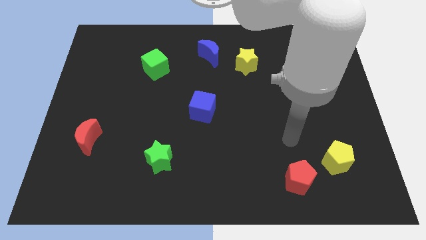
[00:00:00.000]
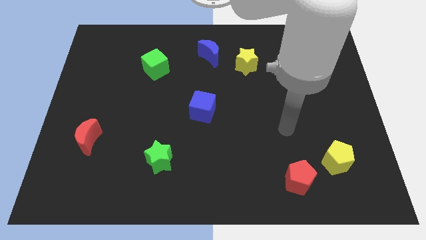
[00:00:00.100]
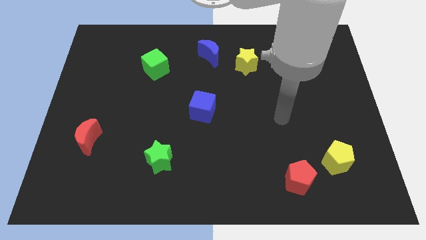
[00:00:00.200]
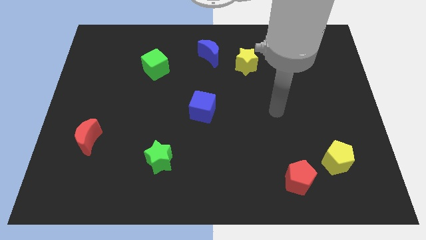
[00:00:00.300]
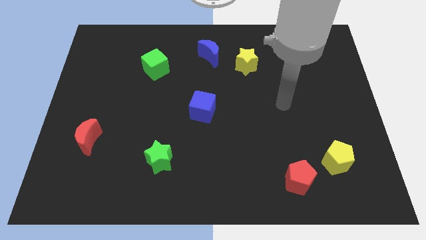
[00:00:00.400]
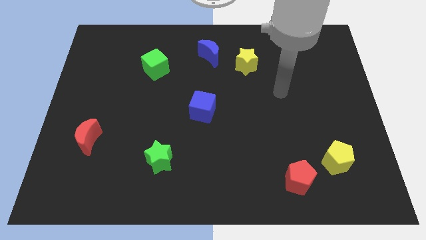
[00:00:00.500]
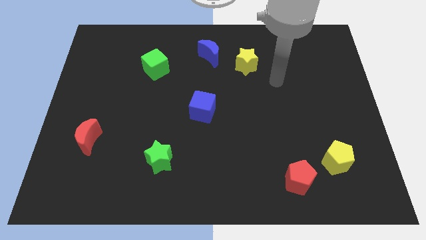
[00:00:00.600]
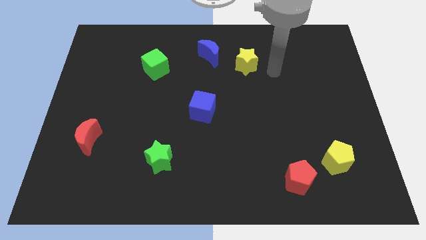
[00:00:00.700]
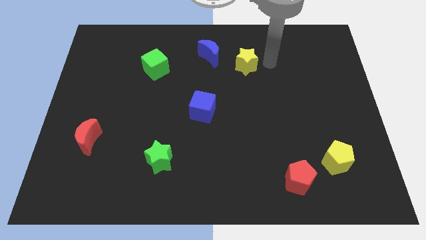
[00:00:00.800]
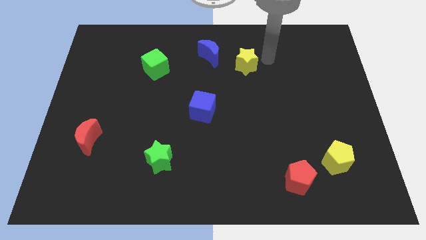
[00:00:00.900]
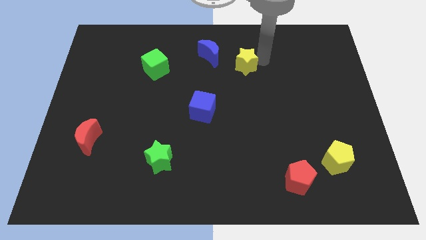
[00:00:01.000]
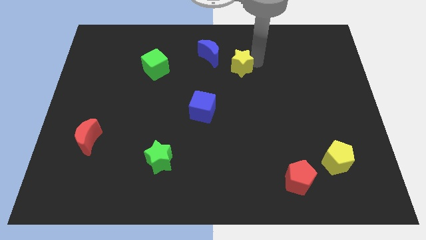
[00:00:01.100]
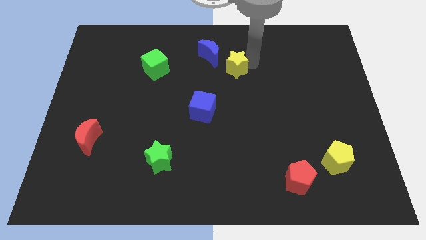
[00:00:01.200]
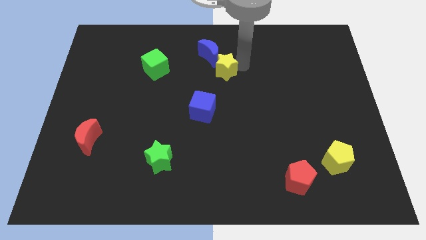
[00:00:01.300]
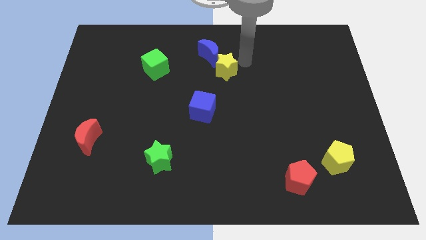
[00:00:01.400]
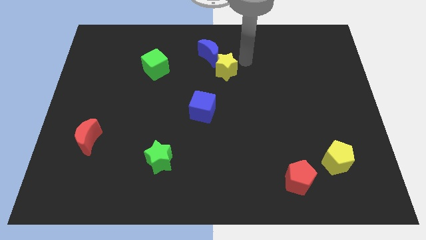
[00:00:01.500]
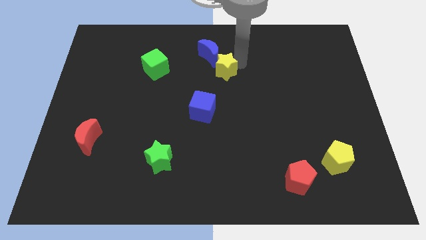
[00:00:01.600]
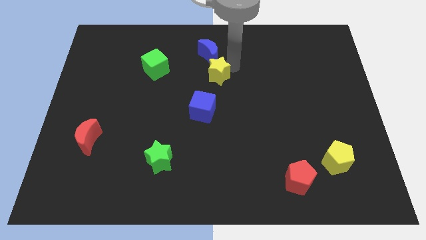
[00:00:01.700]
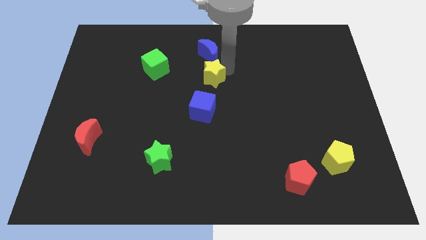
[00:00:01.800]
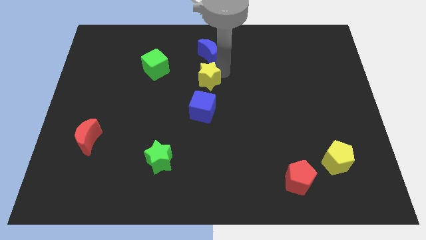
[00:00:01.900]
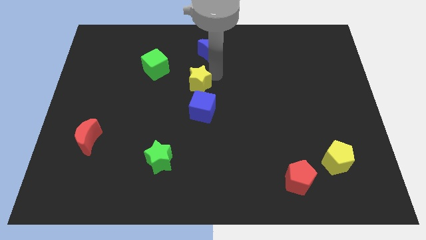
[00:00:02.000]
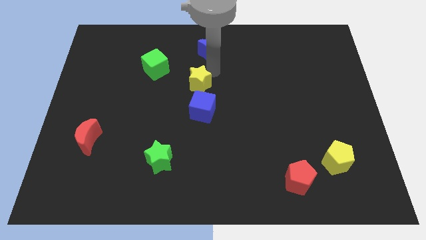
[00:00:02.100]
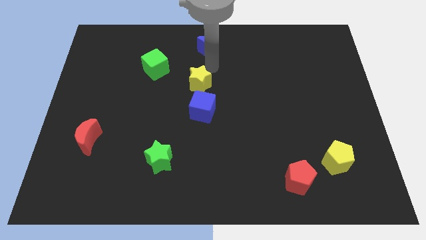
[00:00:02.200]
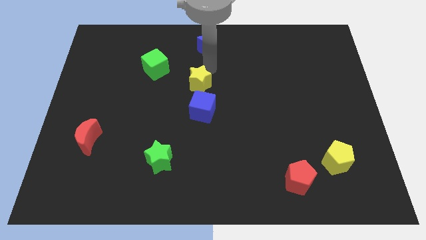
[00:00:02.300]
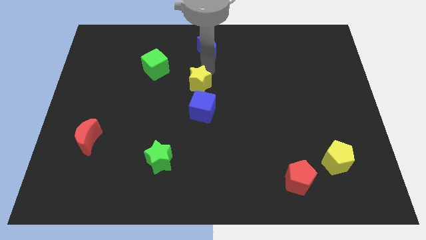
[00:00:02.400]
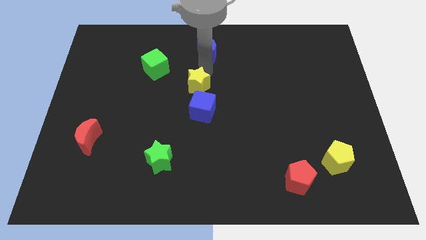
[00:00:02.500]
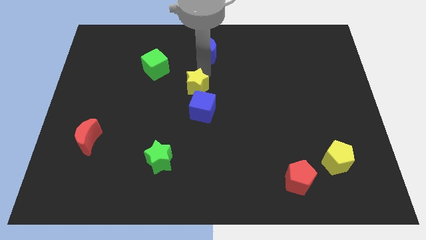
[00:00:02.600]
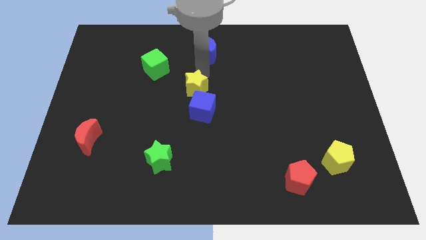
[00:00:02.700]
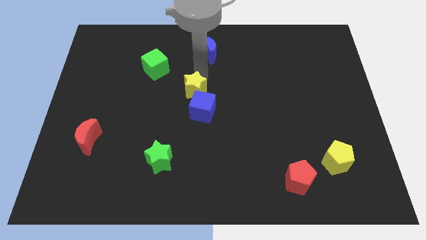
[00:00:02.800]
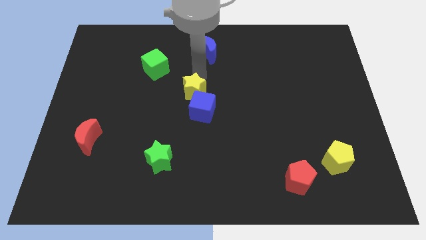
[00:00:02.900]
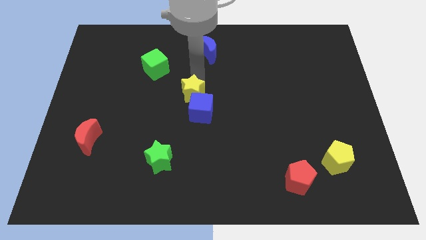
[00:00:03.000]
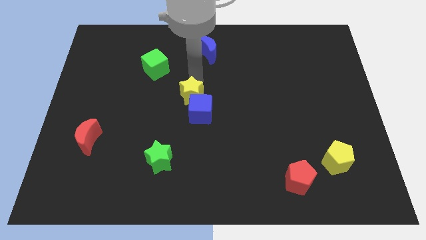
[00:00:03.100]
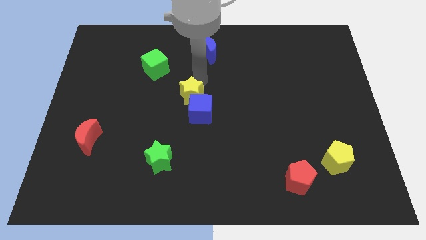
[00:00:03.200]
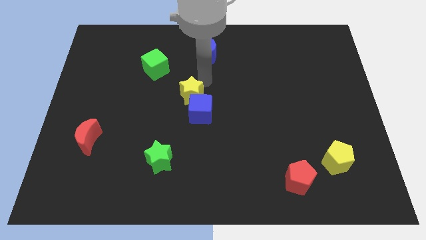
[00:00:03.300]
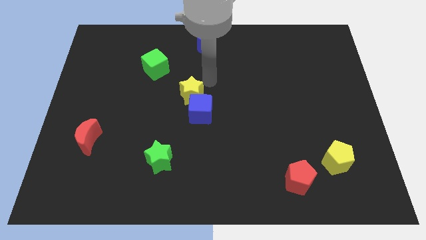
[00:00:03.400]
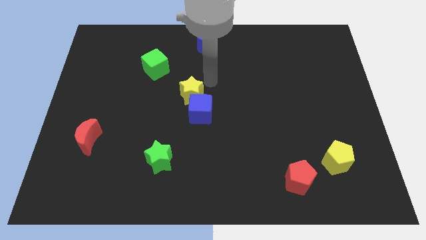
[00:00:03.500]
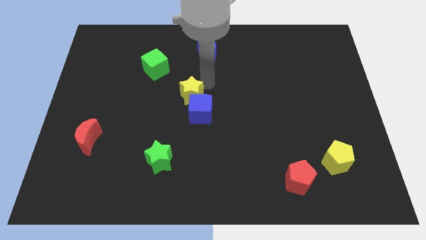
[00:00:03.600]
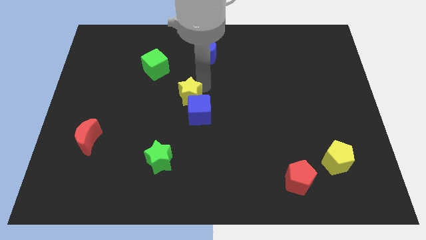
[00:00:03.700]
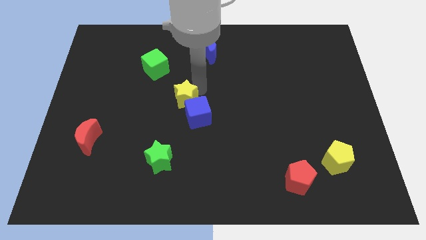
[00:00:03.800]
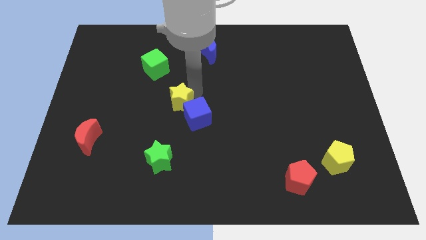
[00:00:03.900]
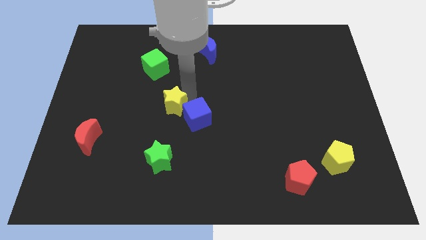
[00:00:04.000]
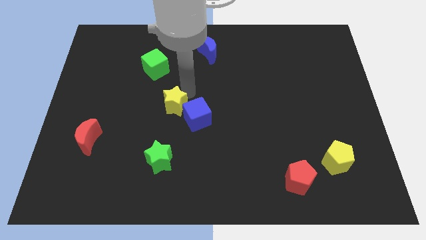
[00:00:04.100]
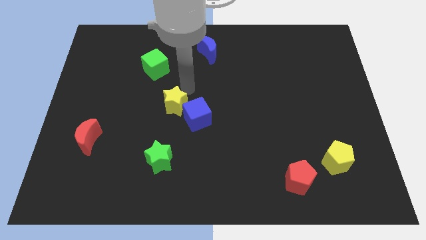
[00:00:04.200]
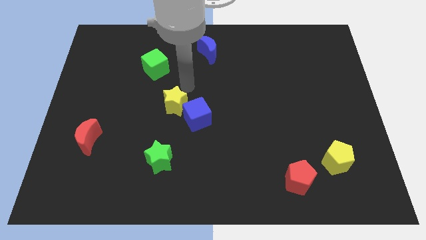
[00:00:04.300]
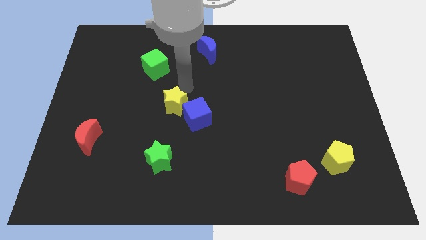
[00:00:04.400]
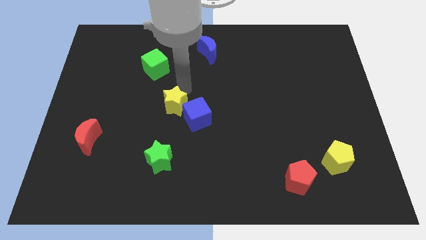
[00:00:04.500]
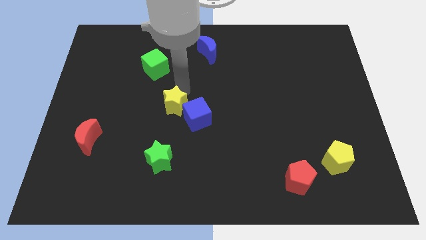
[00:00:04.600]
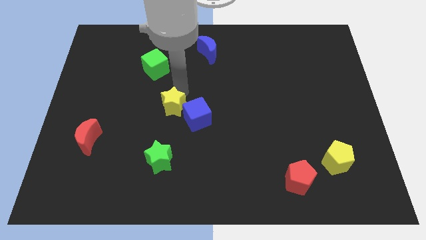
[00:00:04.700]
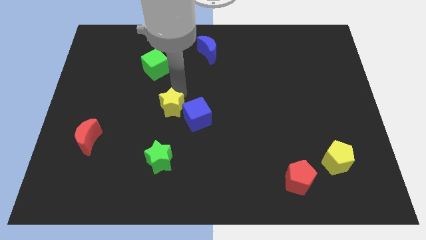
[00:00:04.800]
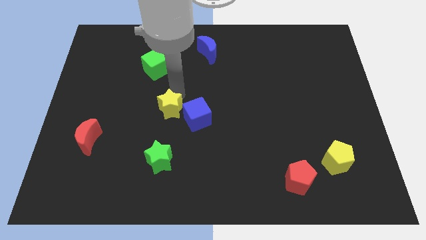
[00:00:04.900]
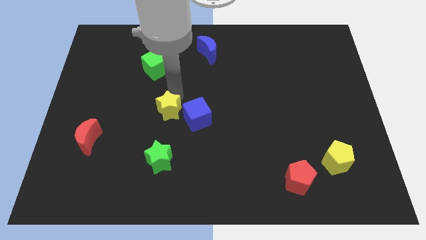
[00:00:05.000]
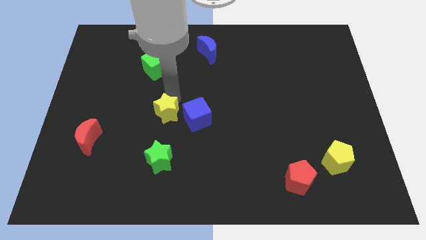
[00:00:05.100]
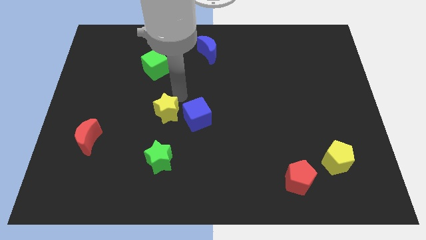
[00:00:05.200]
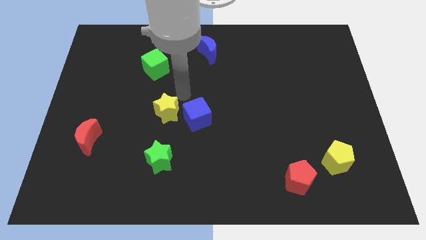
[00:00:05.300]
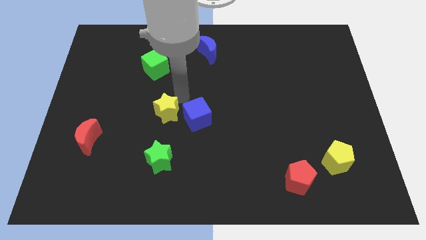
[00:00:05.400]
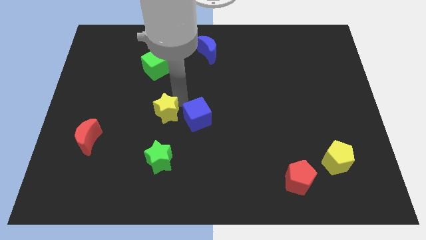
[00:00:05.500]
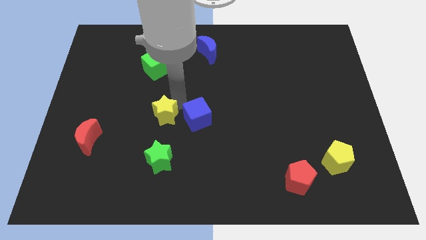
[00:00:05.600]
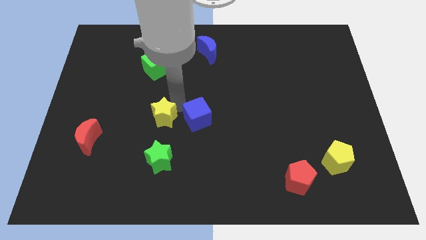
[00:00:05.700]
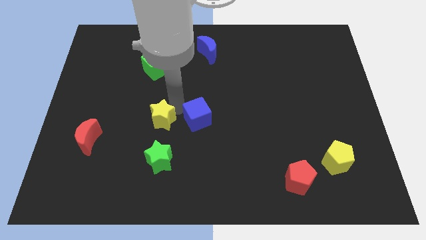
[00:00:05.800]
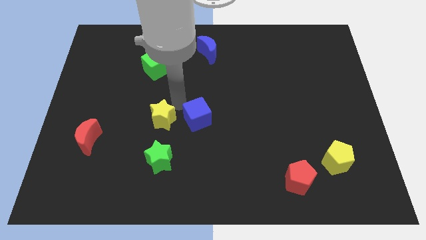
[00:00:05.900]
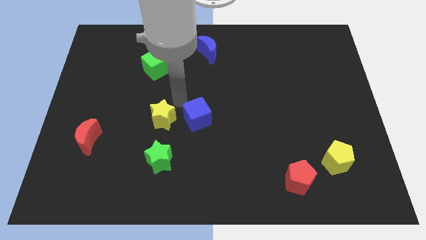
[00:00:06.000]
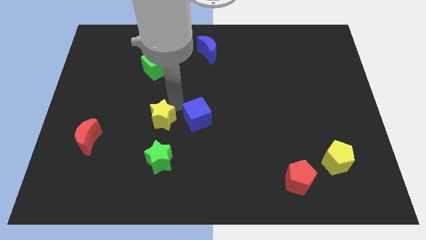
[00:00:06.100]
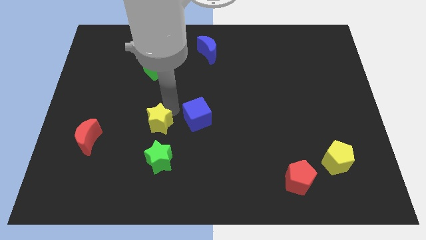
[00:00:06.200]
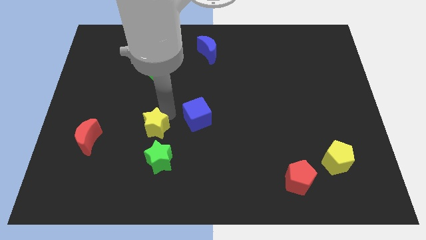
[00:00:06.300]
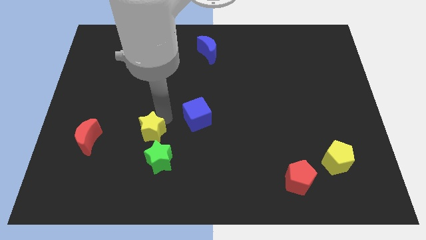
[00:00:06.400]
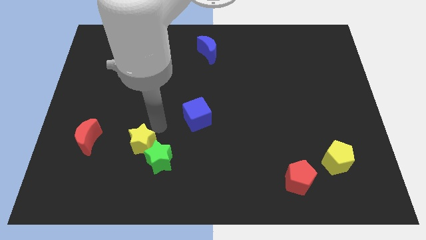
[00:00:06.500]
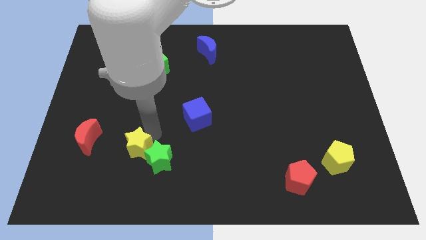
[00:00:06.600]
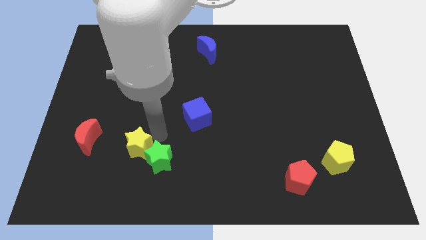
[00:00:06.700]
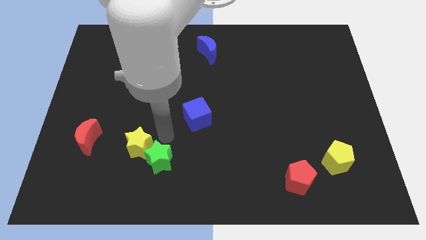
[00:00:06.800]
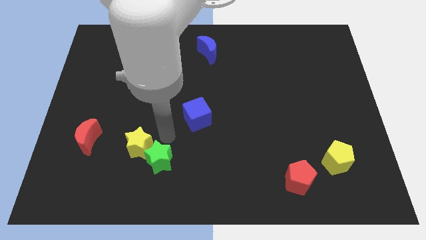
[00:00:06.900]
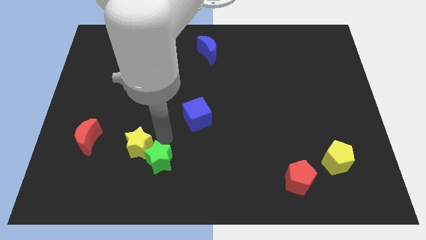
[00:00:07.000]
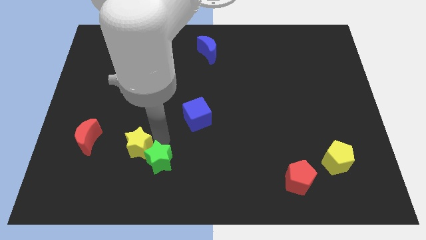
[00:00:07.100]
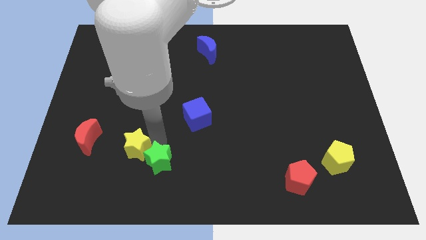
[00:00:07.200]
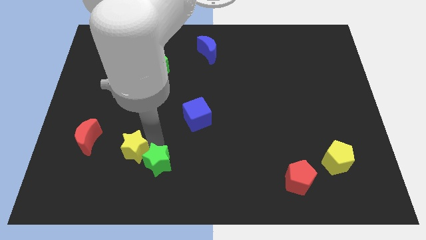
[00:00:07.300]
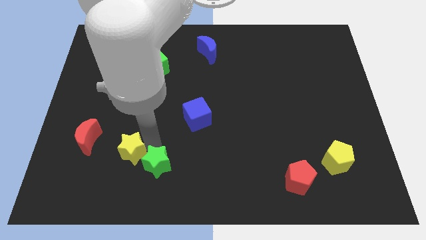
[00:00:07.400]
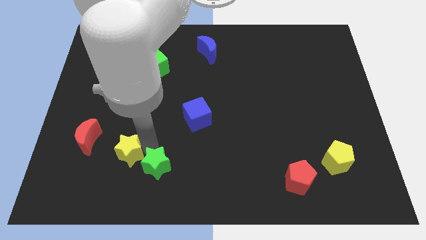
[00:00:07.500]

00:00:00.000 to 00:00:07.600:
put the yellow star to the bottom right of the red moon
